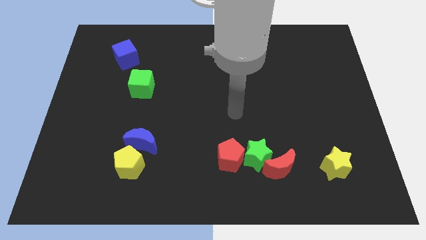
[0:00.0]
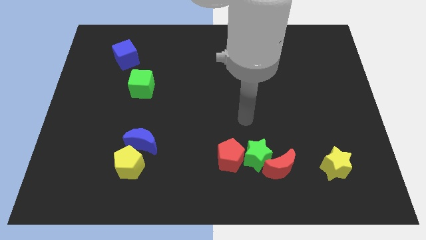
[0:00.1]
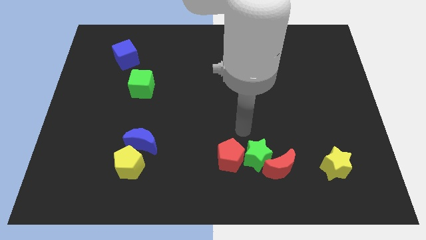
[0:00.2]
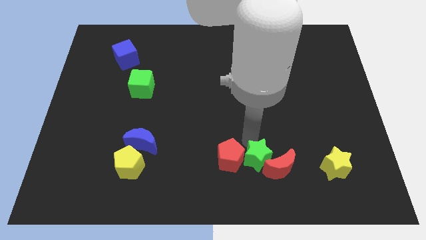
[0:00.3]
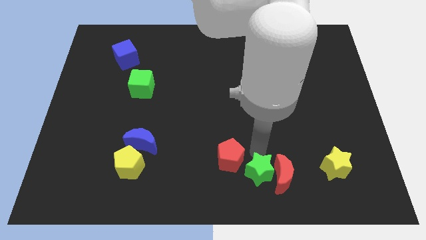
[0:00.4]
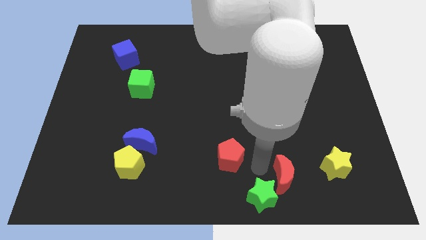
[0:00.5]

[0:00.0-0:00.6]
pull the red pentagon apart from the green star

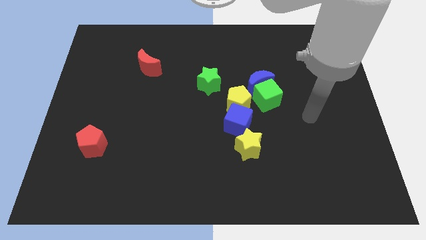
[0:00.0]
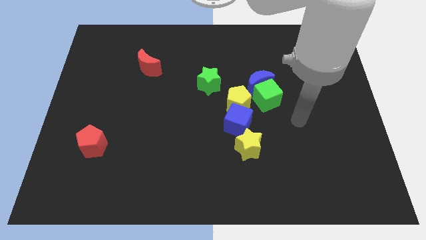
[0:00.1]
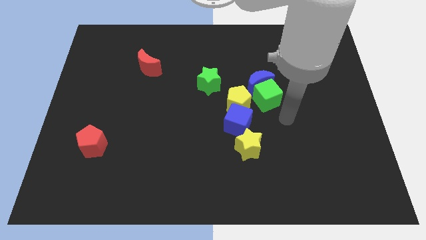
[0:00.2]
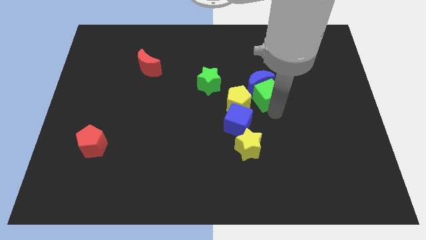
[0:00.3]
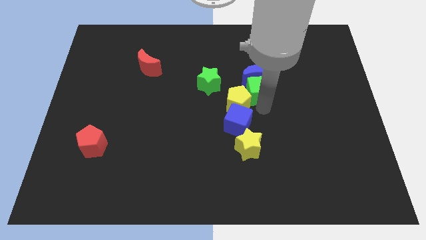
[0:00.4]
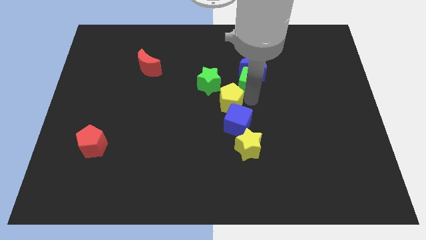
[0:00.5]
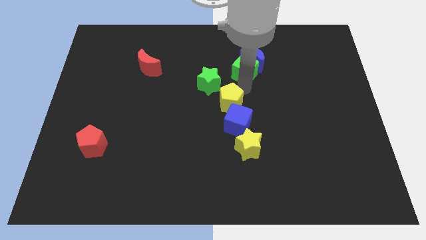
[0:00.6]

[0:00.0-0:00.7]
separate the blue moon from the green cube and yellow pentagon

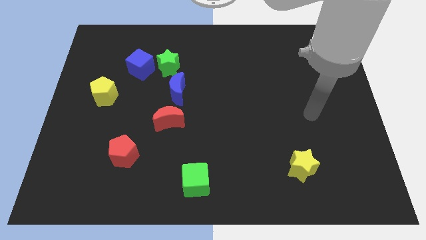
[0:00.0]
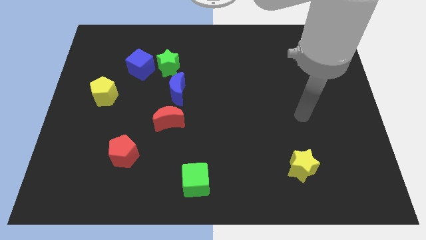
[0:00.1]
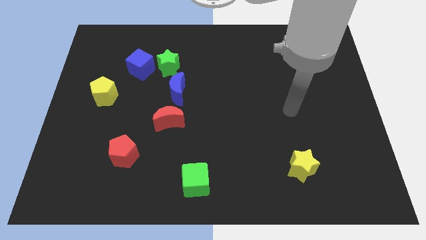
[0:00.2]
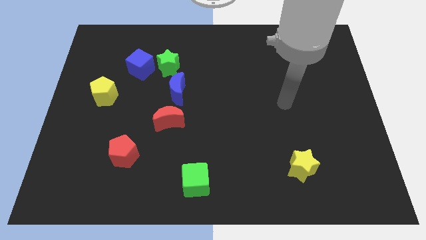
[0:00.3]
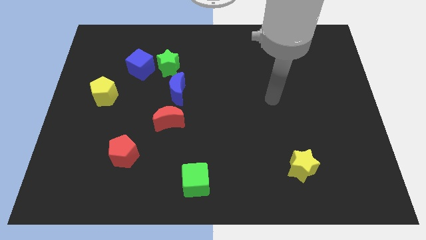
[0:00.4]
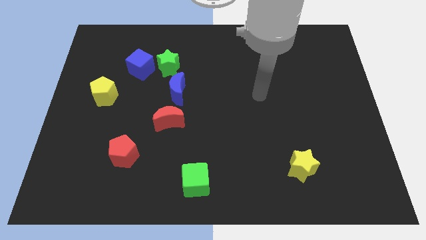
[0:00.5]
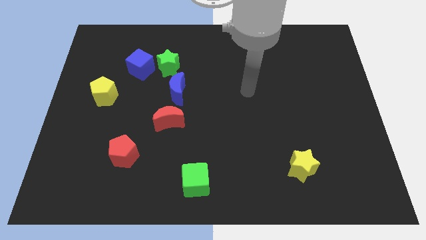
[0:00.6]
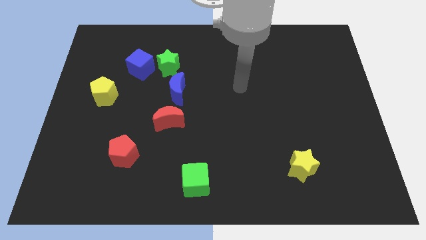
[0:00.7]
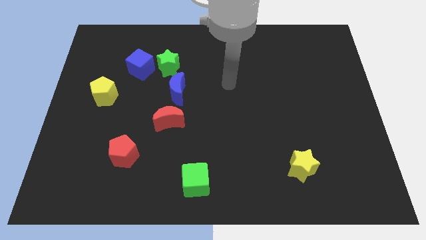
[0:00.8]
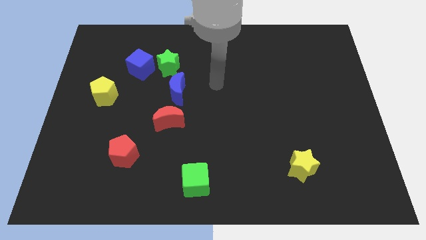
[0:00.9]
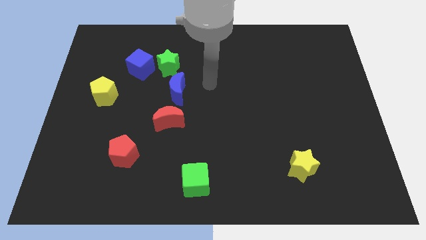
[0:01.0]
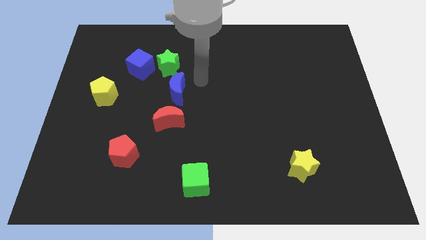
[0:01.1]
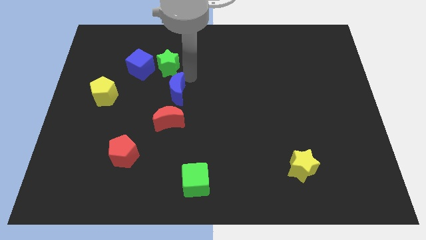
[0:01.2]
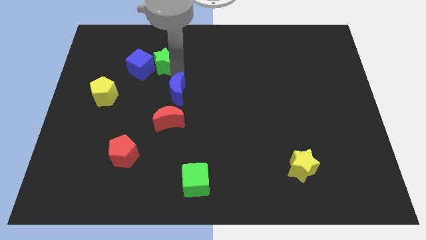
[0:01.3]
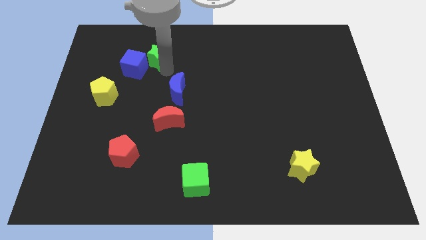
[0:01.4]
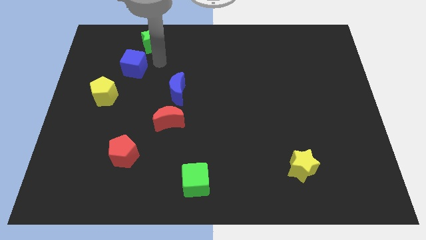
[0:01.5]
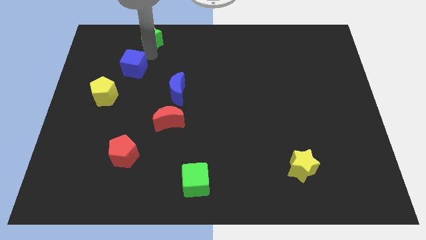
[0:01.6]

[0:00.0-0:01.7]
separate the blue cube from the green star

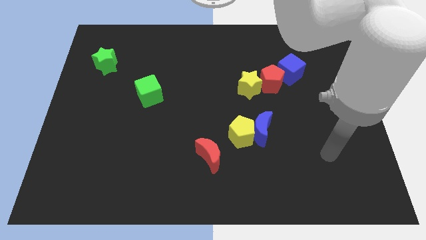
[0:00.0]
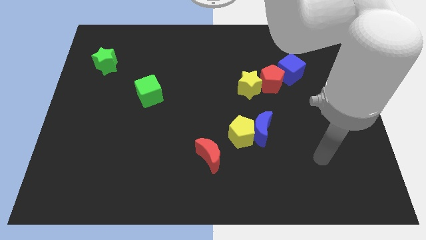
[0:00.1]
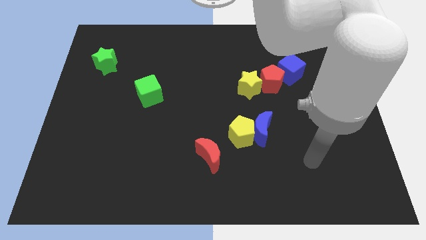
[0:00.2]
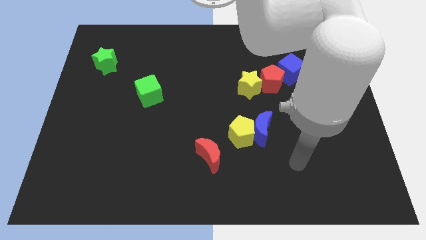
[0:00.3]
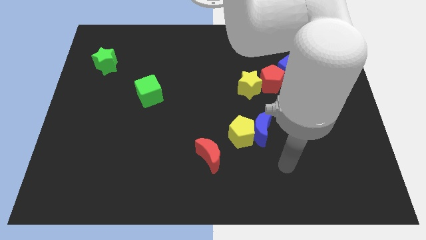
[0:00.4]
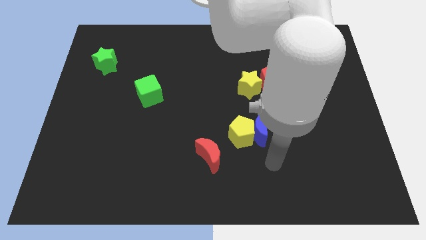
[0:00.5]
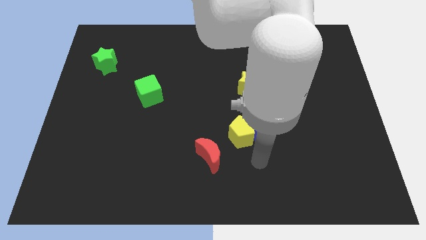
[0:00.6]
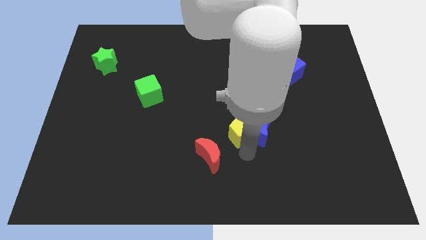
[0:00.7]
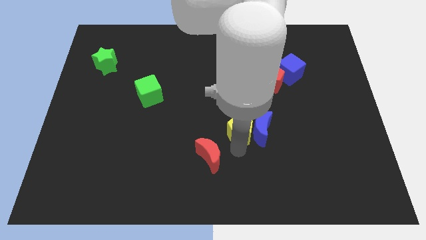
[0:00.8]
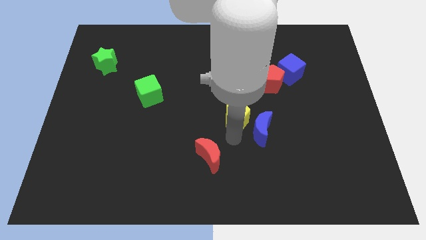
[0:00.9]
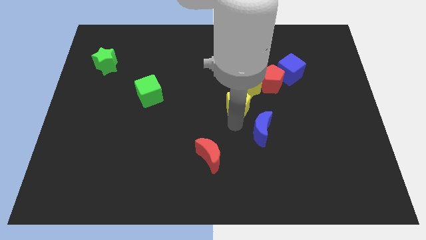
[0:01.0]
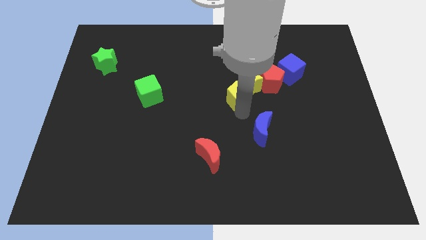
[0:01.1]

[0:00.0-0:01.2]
pull the blue moon apart from the yellow pentagon

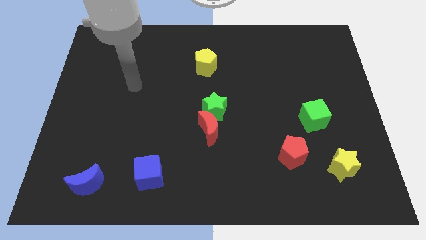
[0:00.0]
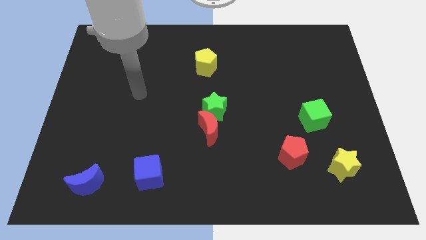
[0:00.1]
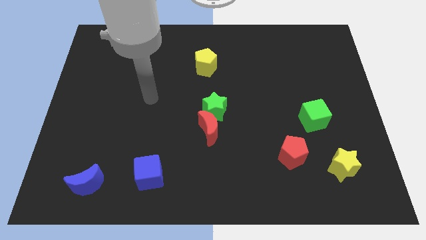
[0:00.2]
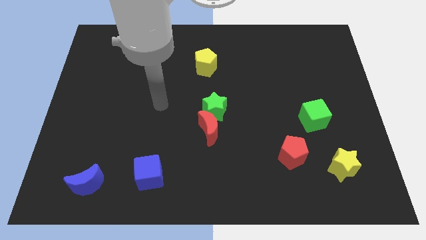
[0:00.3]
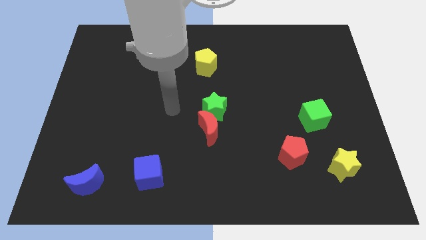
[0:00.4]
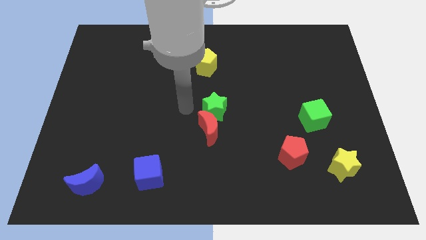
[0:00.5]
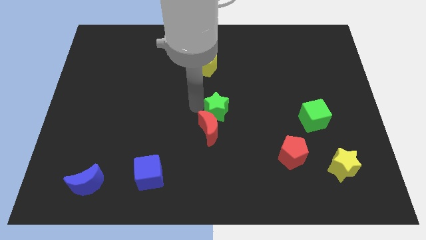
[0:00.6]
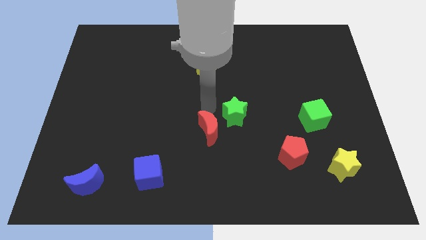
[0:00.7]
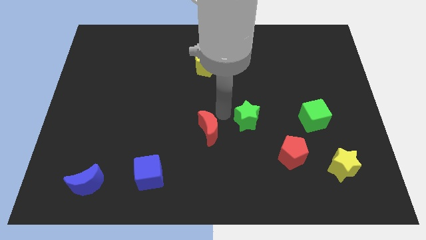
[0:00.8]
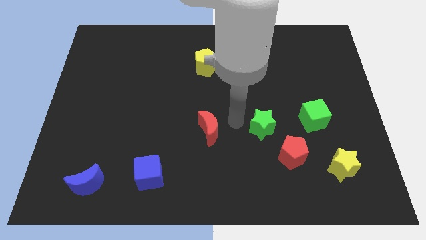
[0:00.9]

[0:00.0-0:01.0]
pull the red moon apart from the green star

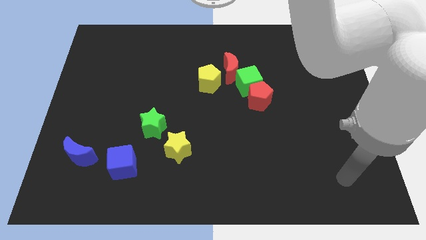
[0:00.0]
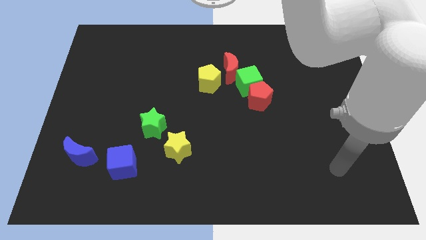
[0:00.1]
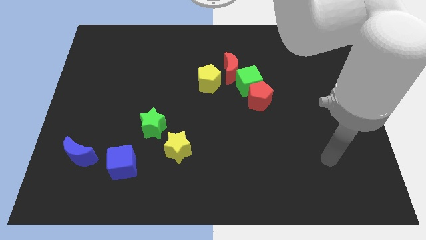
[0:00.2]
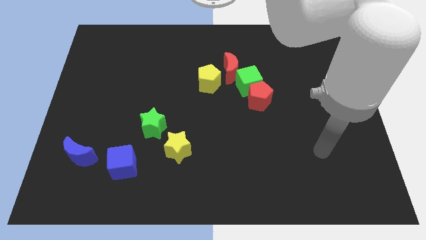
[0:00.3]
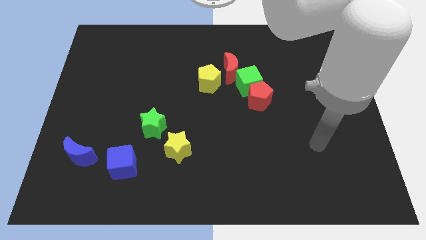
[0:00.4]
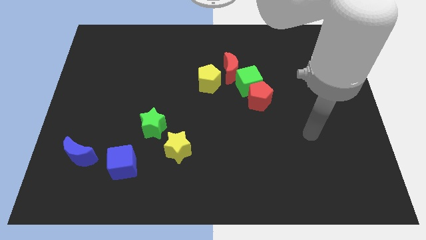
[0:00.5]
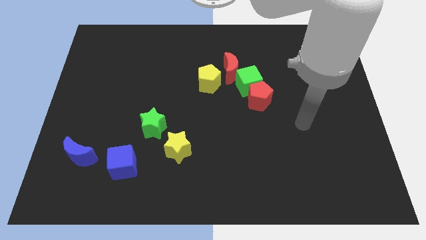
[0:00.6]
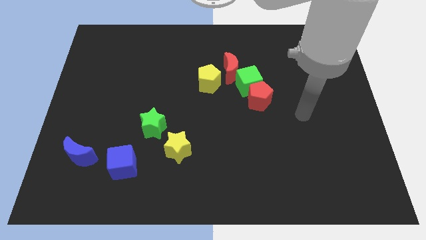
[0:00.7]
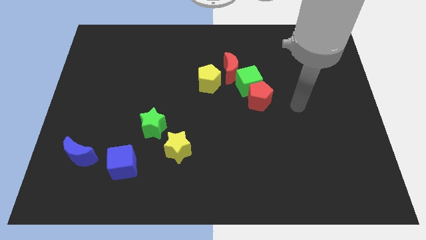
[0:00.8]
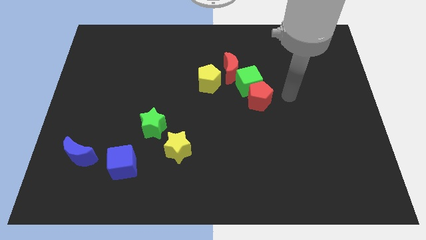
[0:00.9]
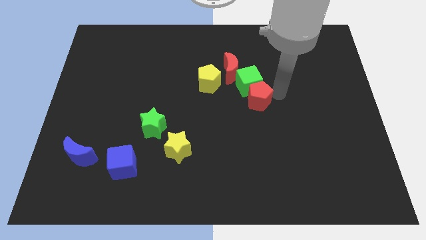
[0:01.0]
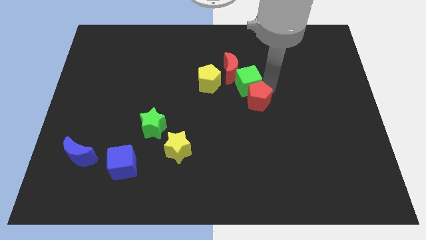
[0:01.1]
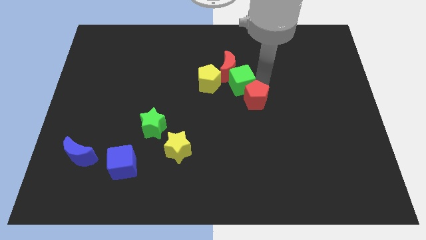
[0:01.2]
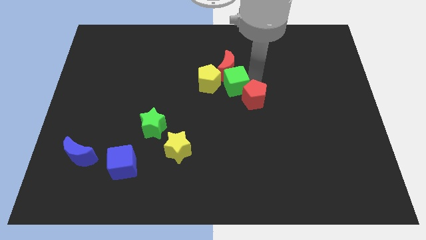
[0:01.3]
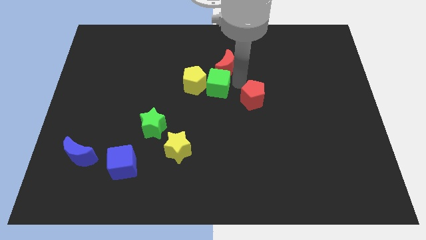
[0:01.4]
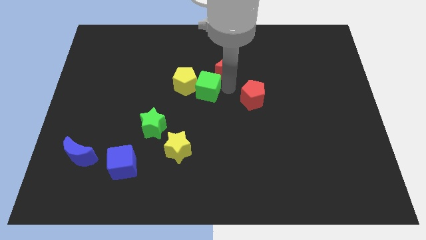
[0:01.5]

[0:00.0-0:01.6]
pull the red pentagon apart from the green cube

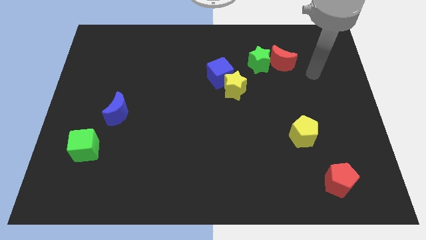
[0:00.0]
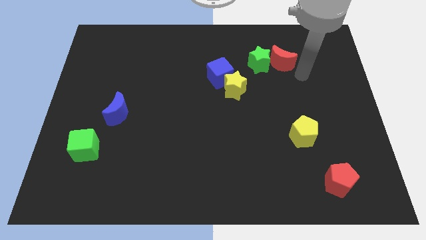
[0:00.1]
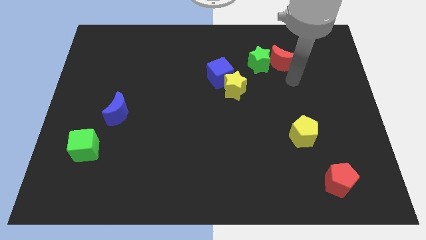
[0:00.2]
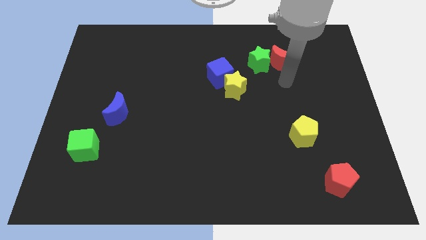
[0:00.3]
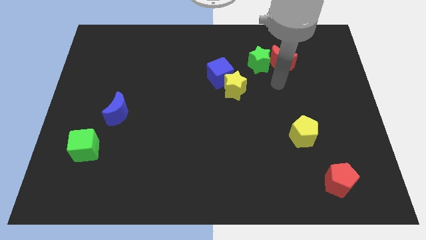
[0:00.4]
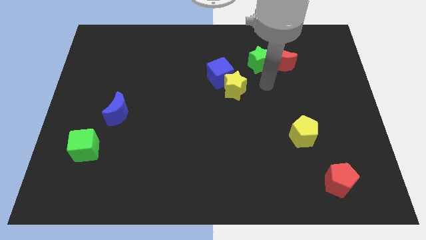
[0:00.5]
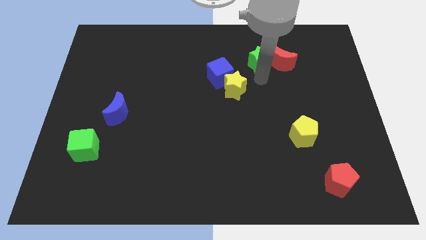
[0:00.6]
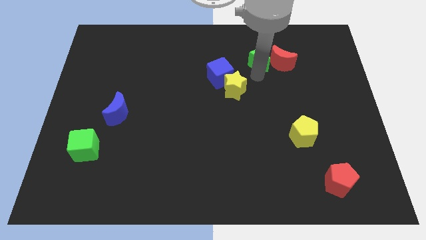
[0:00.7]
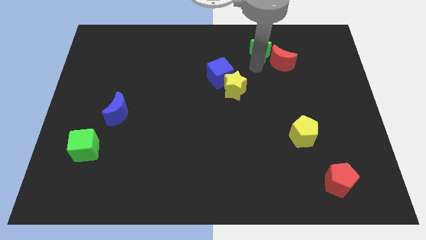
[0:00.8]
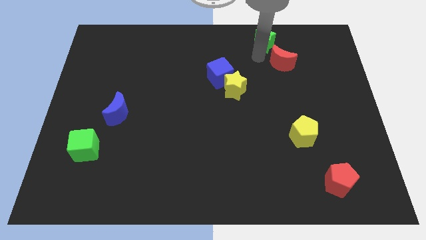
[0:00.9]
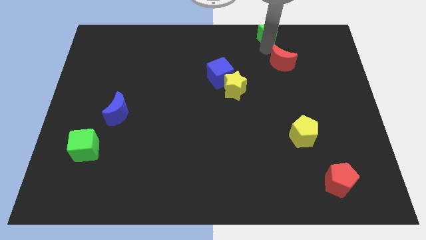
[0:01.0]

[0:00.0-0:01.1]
separate the red moon from the green star

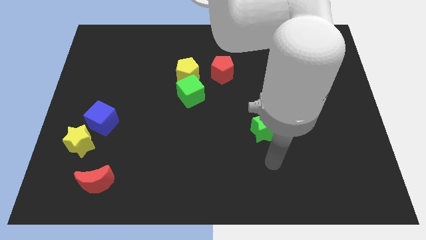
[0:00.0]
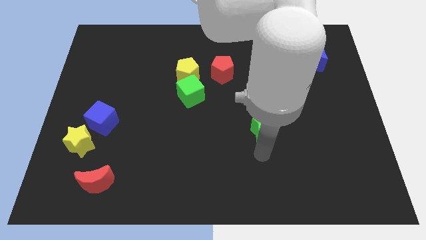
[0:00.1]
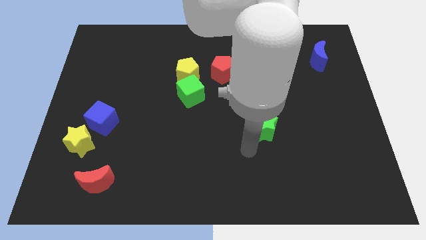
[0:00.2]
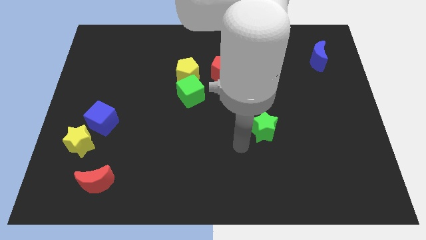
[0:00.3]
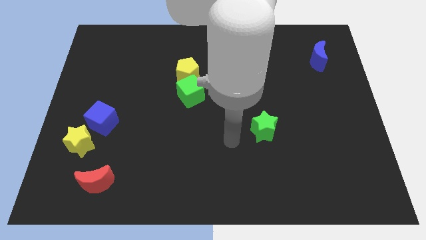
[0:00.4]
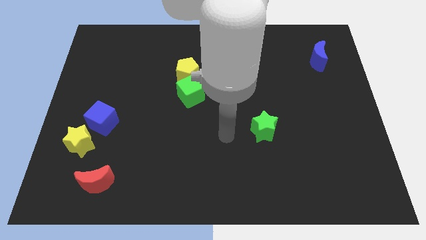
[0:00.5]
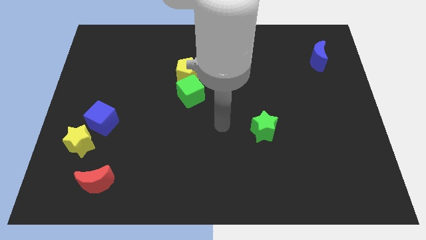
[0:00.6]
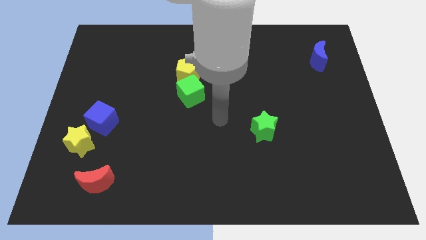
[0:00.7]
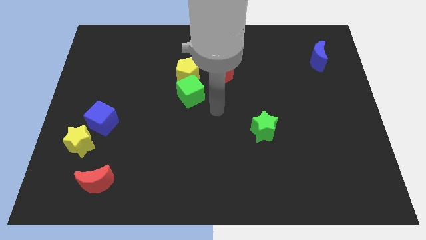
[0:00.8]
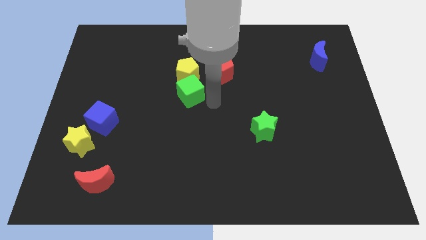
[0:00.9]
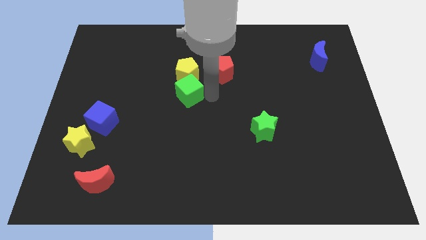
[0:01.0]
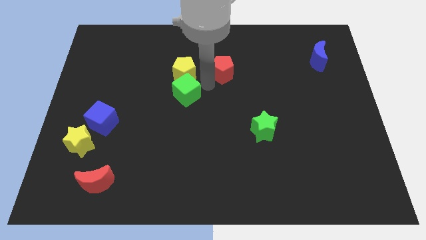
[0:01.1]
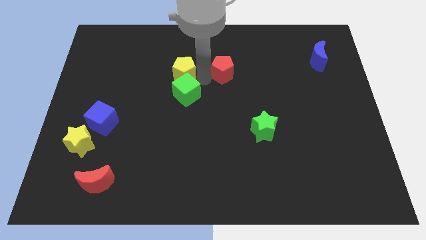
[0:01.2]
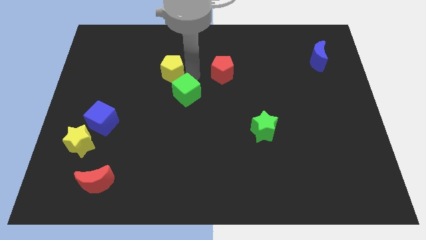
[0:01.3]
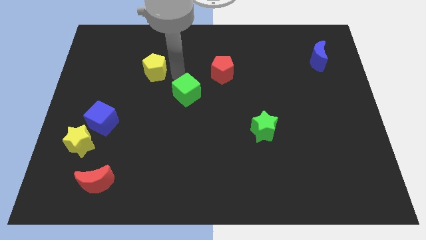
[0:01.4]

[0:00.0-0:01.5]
move the green cube away from the yellow pentagon
